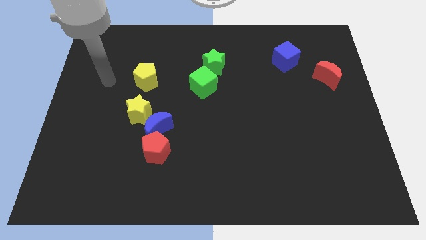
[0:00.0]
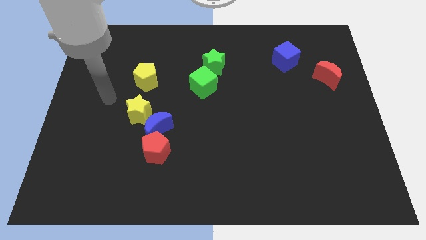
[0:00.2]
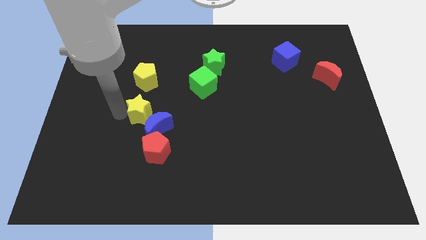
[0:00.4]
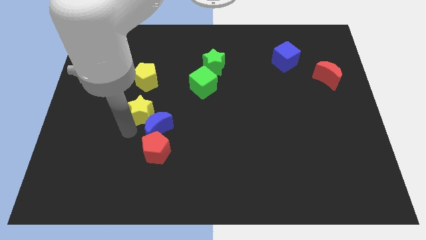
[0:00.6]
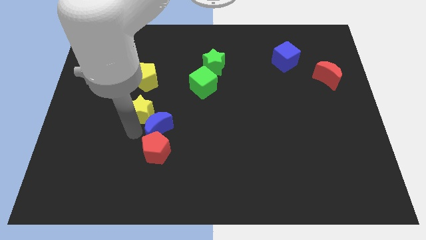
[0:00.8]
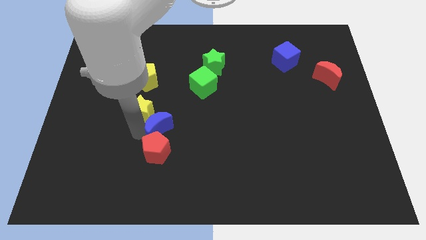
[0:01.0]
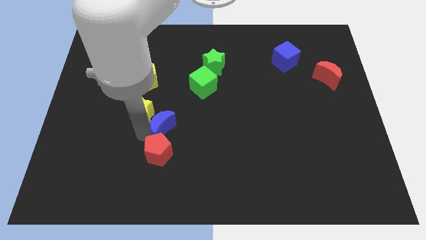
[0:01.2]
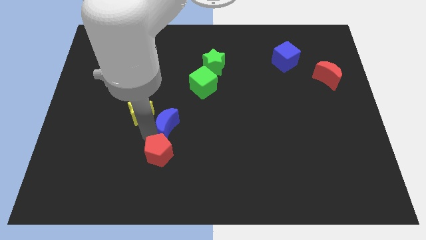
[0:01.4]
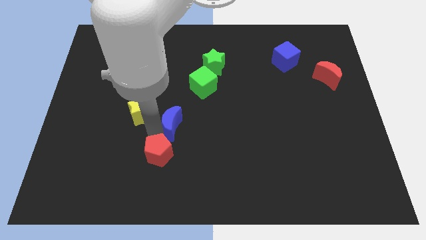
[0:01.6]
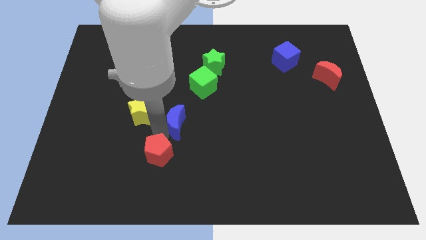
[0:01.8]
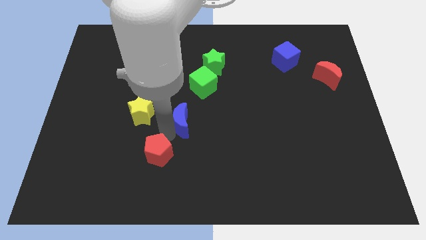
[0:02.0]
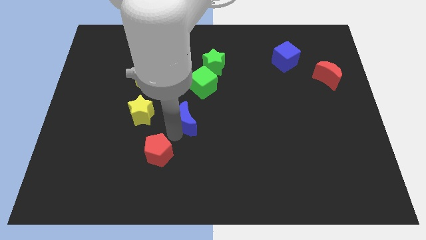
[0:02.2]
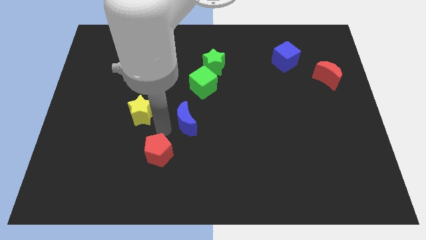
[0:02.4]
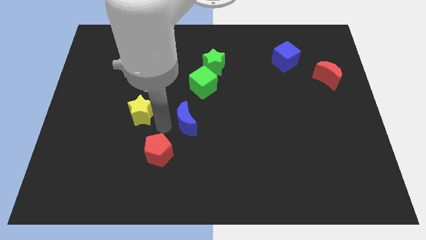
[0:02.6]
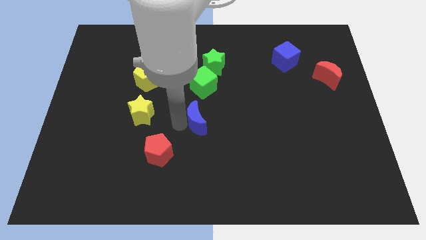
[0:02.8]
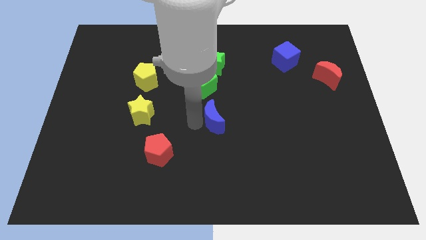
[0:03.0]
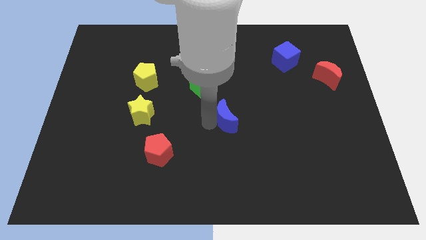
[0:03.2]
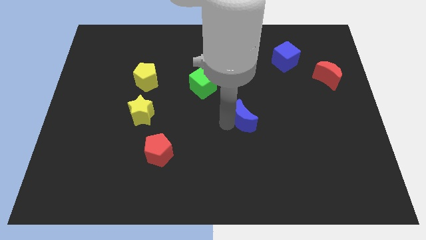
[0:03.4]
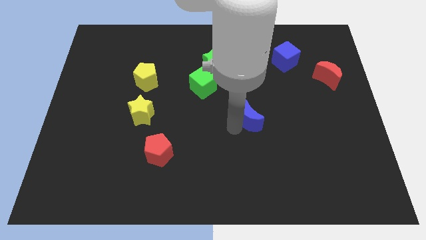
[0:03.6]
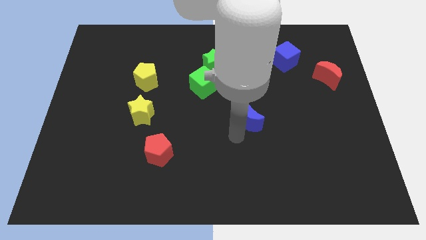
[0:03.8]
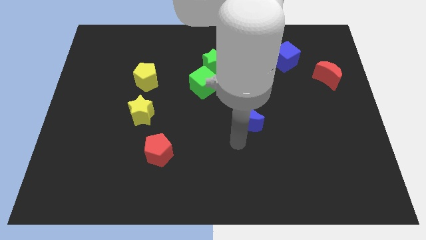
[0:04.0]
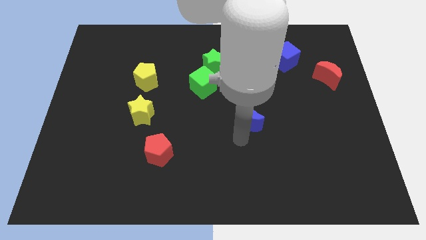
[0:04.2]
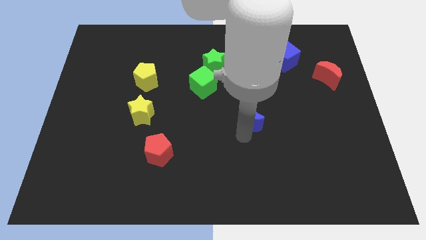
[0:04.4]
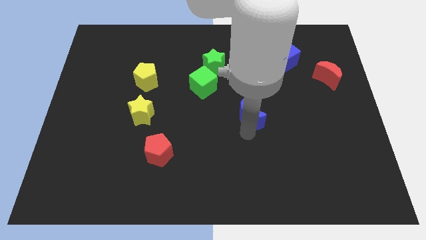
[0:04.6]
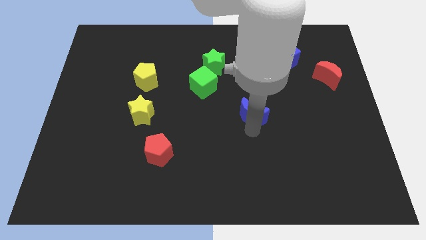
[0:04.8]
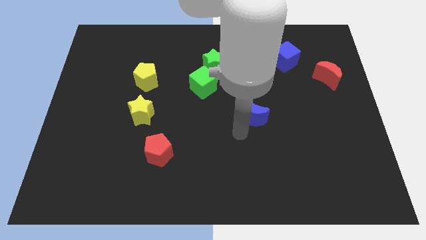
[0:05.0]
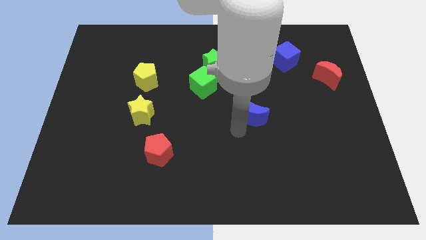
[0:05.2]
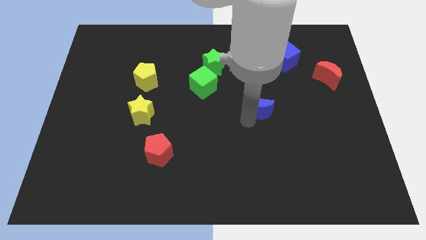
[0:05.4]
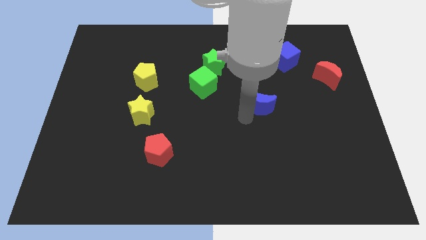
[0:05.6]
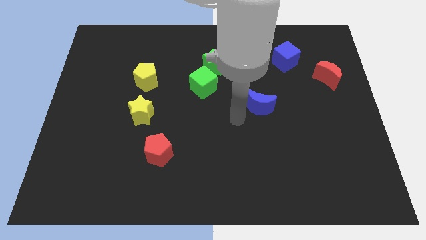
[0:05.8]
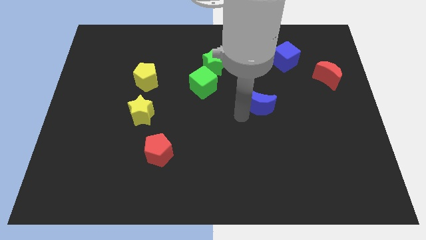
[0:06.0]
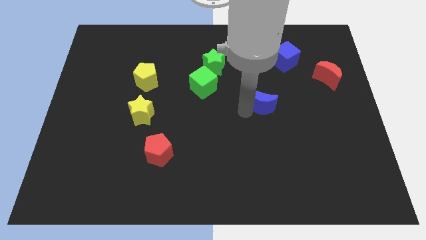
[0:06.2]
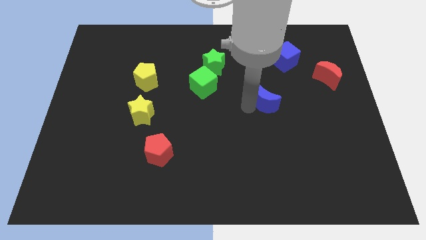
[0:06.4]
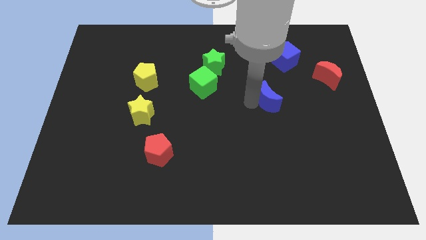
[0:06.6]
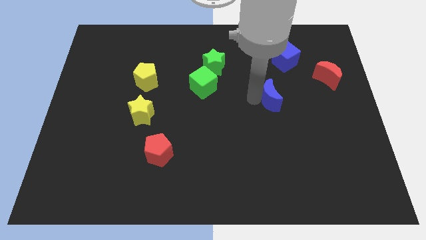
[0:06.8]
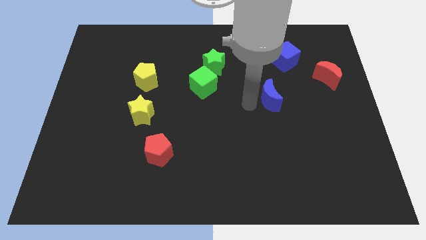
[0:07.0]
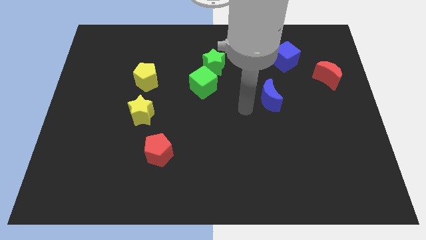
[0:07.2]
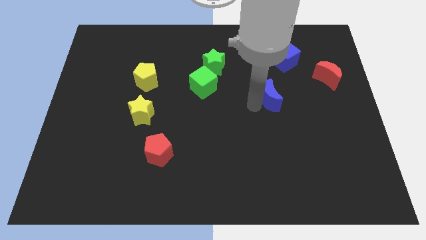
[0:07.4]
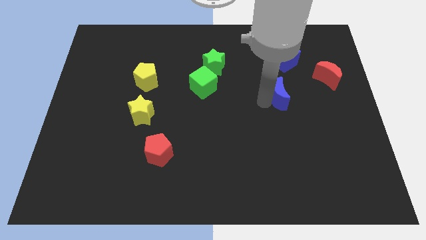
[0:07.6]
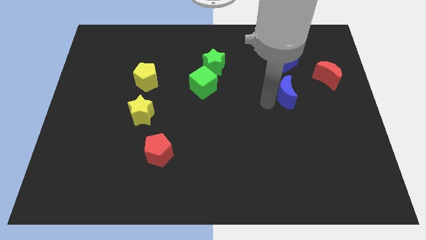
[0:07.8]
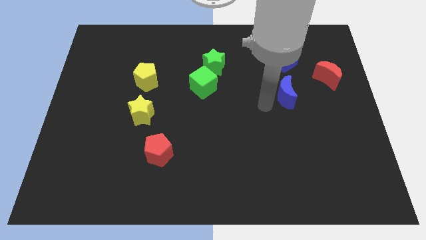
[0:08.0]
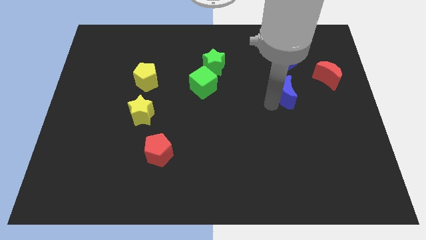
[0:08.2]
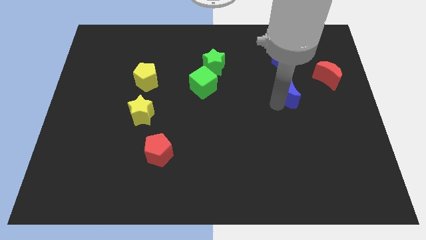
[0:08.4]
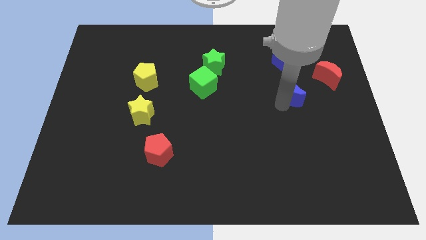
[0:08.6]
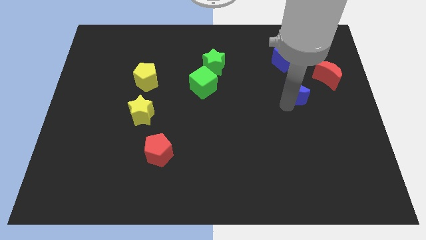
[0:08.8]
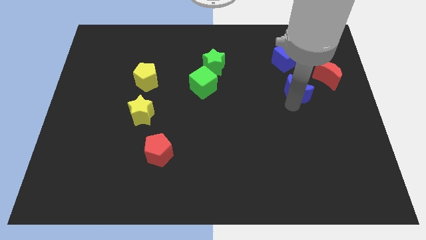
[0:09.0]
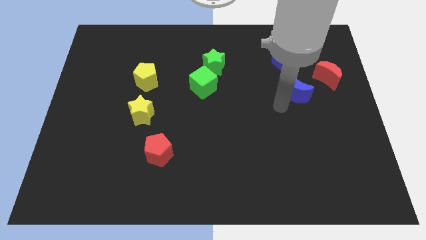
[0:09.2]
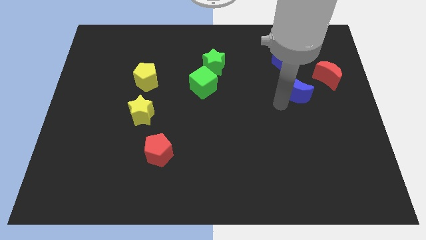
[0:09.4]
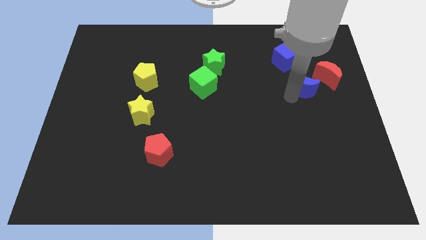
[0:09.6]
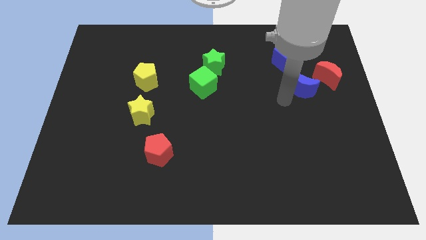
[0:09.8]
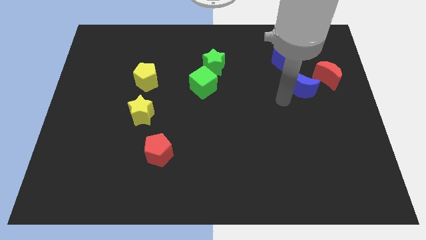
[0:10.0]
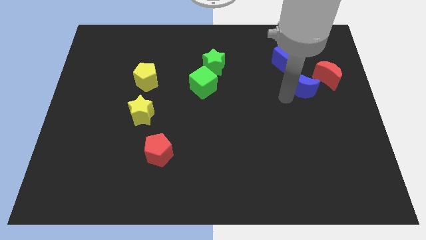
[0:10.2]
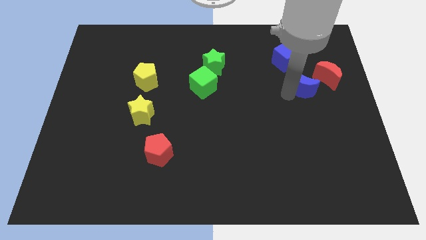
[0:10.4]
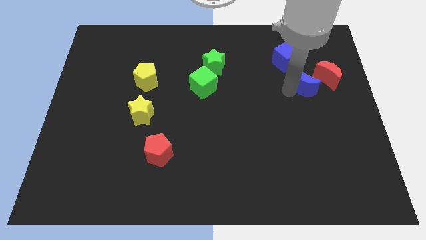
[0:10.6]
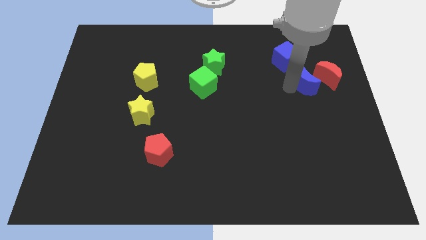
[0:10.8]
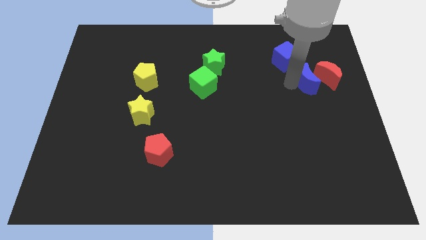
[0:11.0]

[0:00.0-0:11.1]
put the blue moon to the red moon

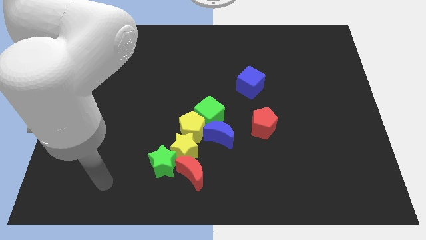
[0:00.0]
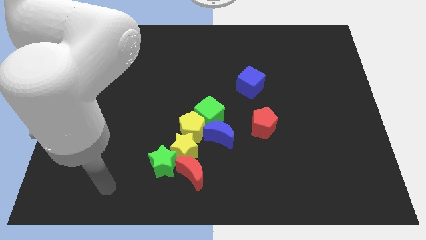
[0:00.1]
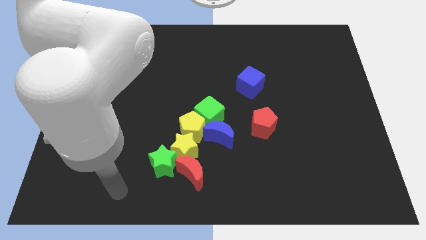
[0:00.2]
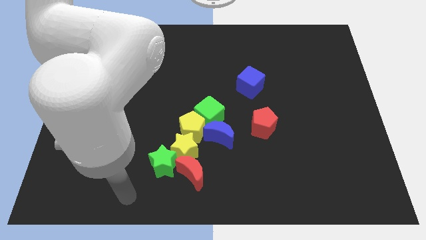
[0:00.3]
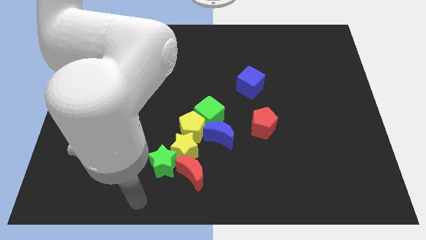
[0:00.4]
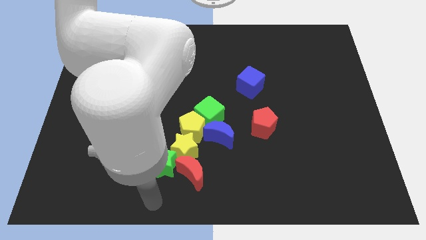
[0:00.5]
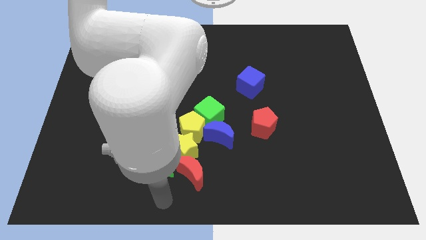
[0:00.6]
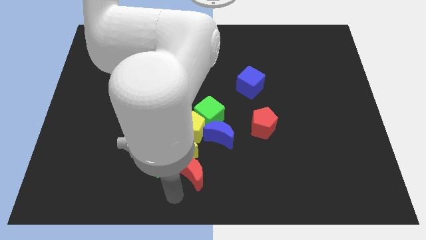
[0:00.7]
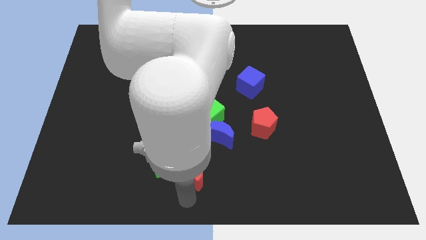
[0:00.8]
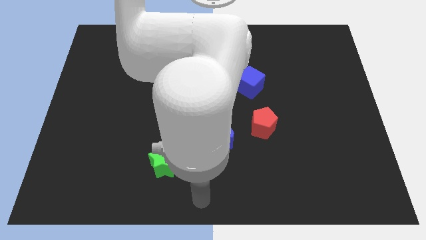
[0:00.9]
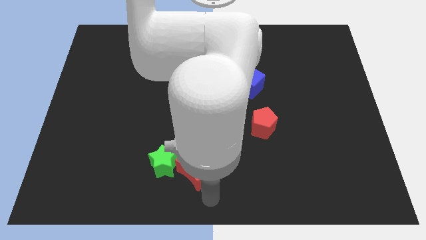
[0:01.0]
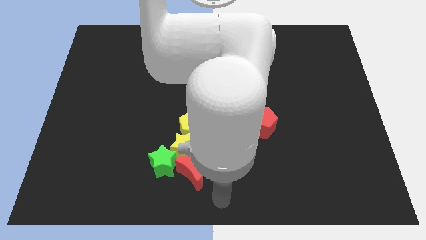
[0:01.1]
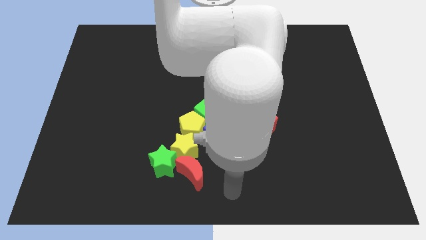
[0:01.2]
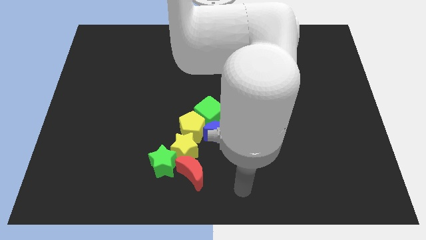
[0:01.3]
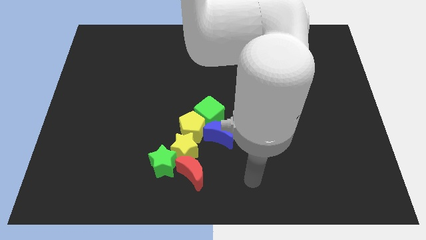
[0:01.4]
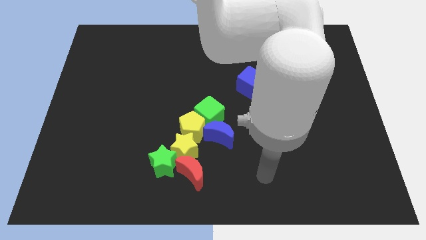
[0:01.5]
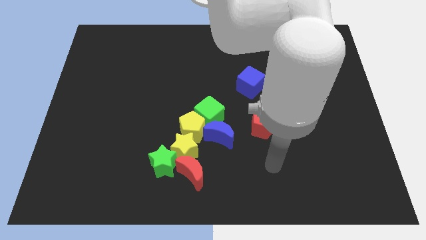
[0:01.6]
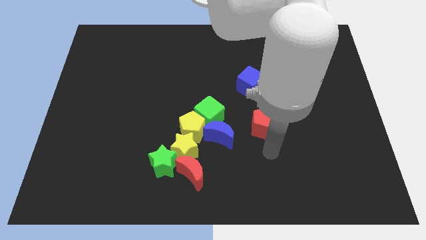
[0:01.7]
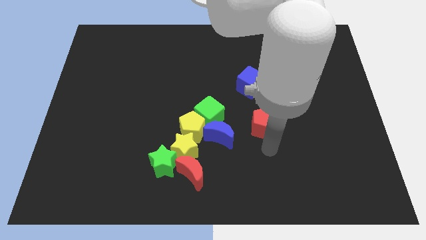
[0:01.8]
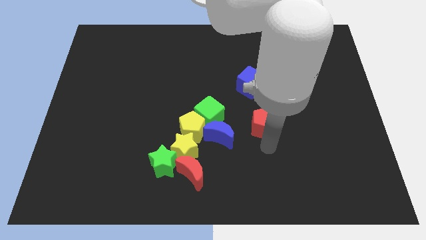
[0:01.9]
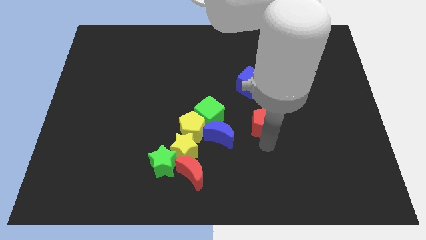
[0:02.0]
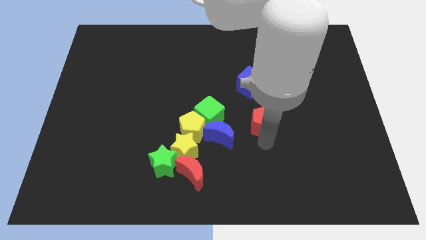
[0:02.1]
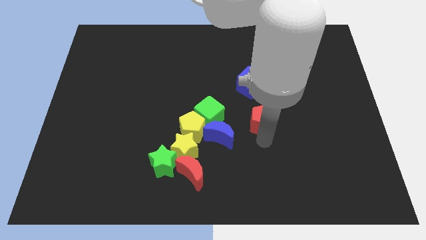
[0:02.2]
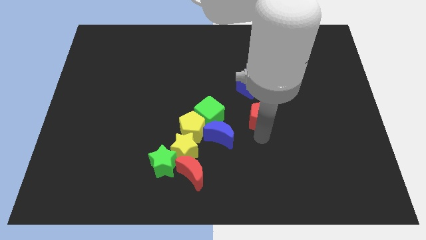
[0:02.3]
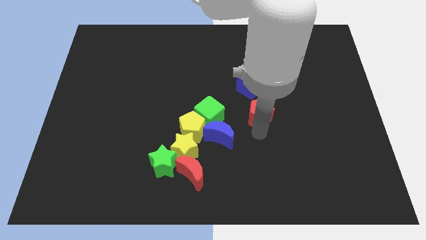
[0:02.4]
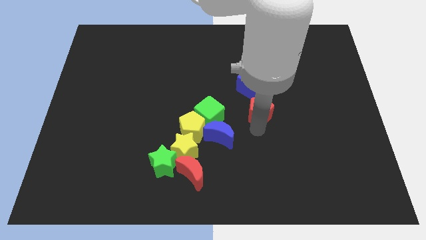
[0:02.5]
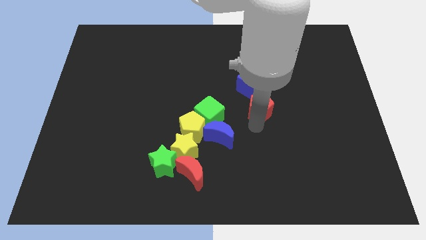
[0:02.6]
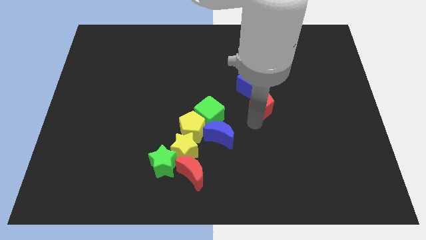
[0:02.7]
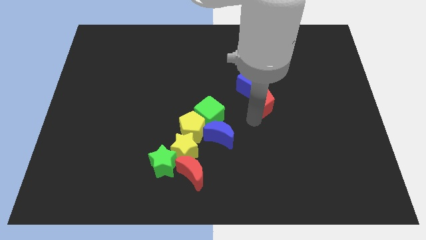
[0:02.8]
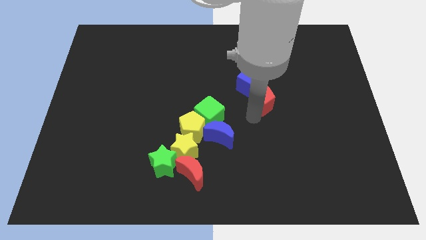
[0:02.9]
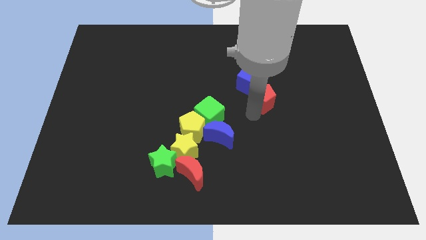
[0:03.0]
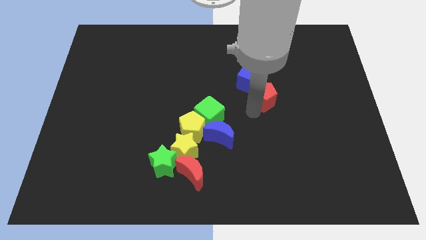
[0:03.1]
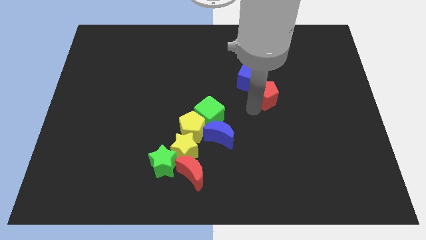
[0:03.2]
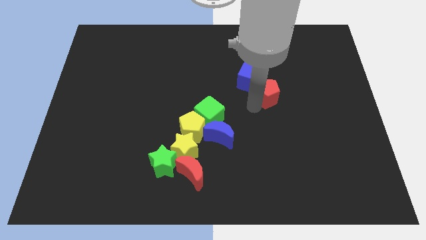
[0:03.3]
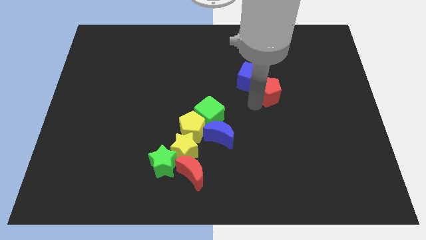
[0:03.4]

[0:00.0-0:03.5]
push the red pentagon next to the blue cube
